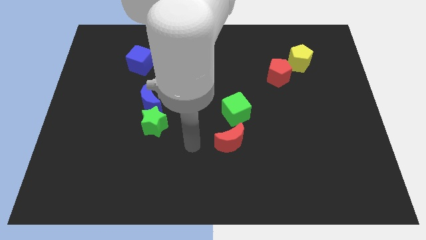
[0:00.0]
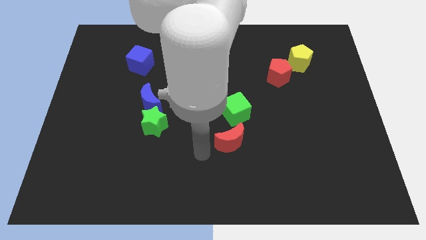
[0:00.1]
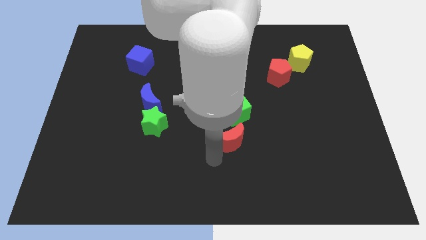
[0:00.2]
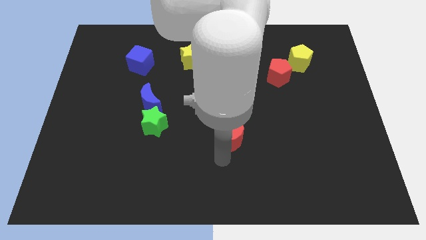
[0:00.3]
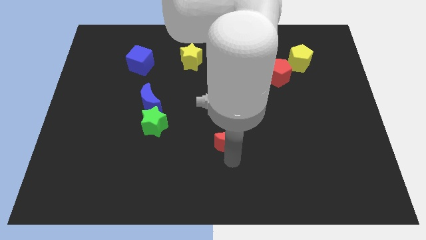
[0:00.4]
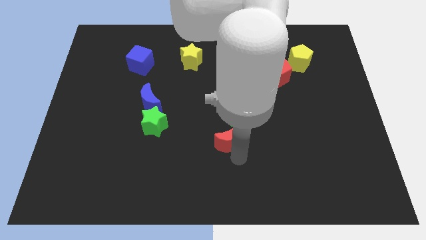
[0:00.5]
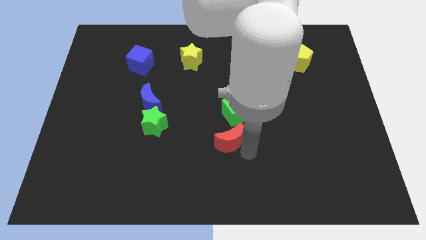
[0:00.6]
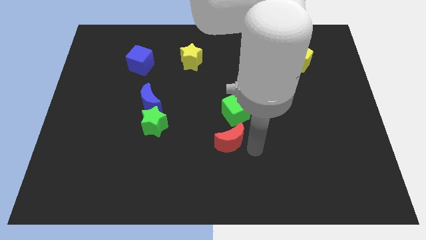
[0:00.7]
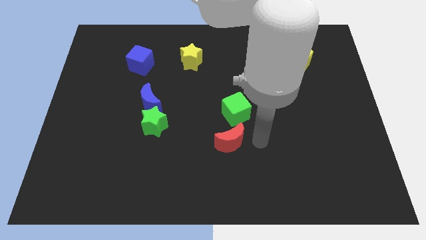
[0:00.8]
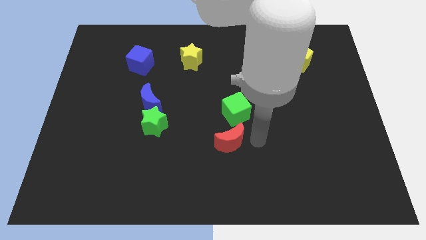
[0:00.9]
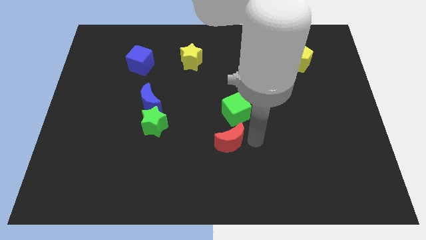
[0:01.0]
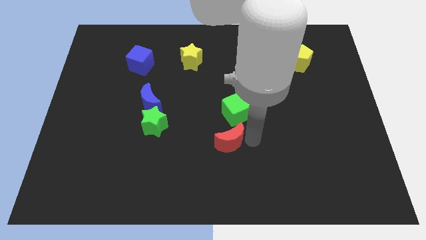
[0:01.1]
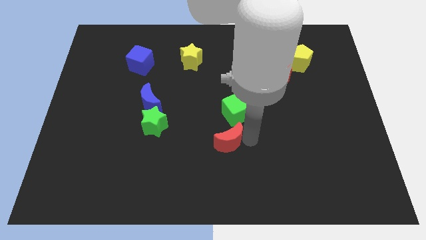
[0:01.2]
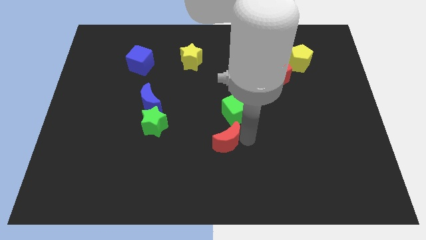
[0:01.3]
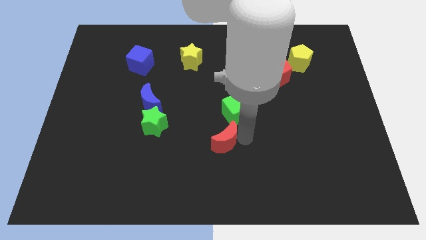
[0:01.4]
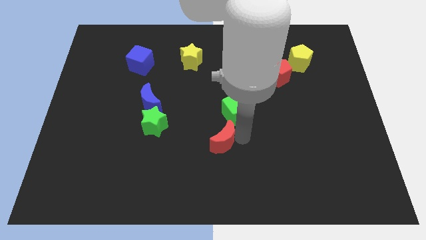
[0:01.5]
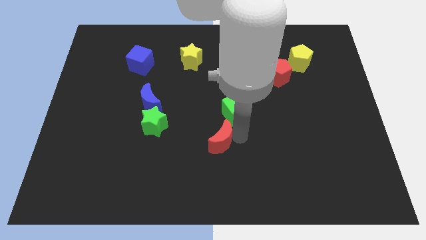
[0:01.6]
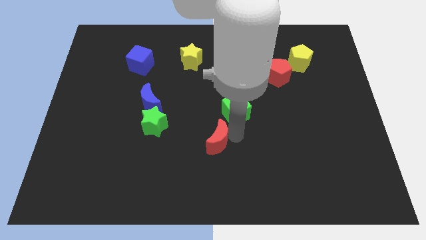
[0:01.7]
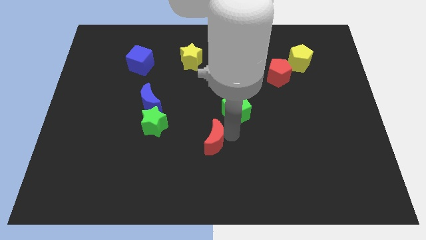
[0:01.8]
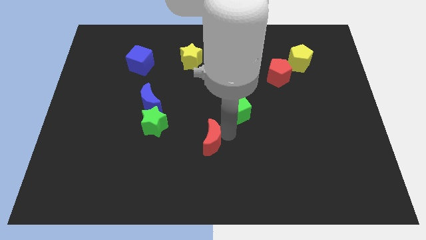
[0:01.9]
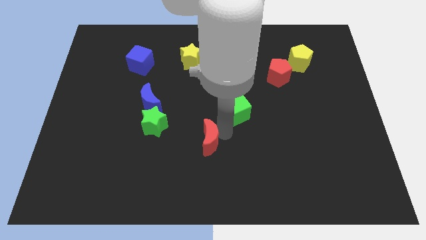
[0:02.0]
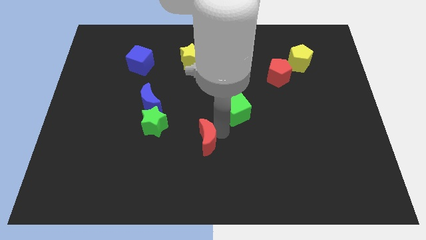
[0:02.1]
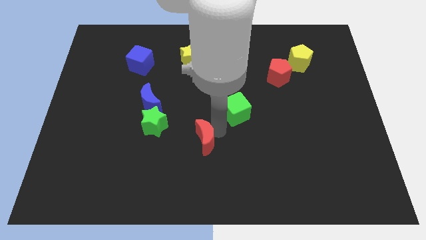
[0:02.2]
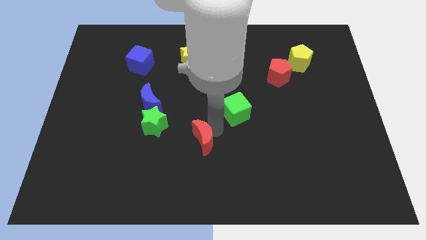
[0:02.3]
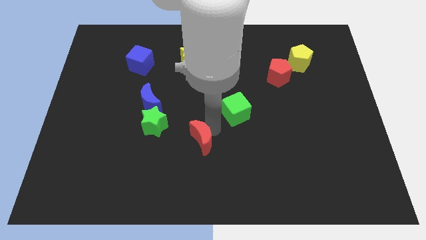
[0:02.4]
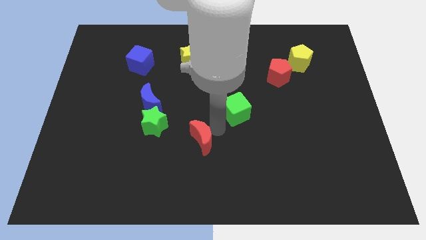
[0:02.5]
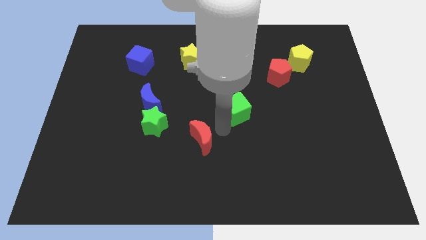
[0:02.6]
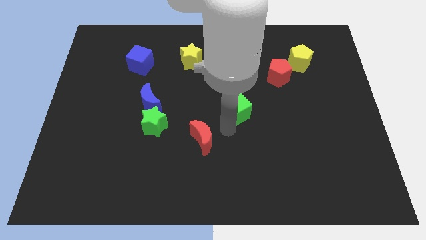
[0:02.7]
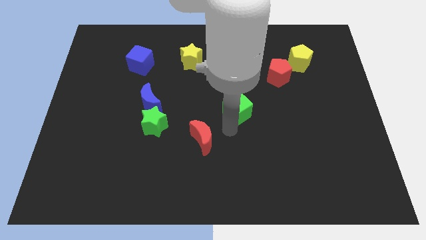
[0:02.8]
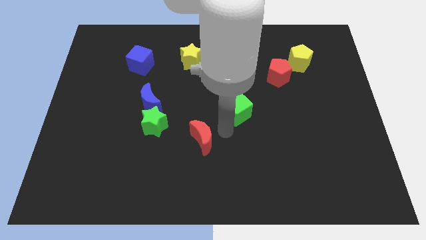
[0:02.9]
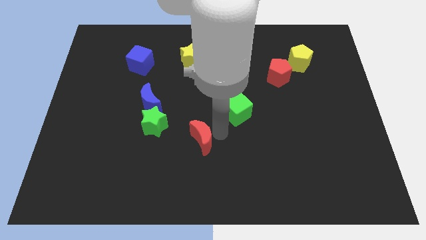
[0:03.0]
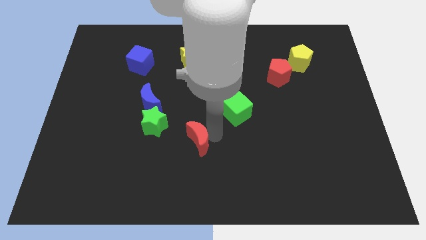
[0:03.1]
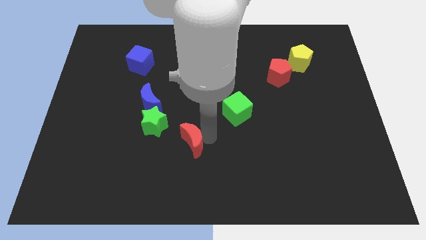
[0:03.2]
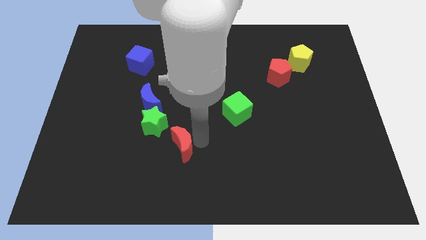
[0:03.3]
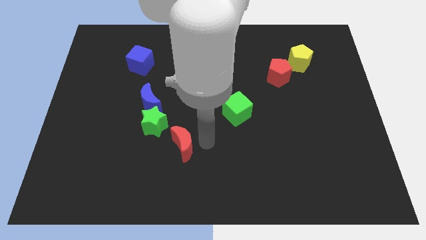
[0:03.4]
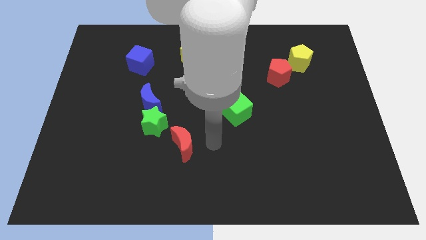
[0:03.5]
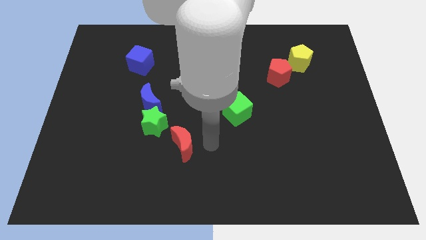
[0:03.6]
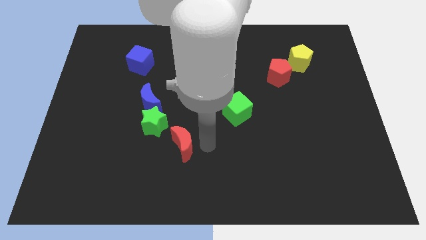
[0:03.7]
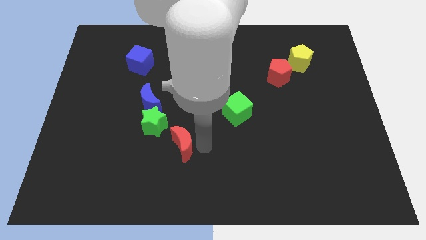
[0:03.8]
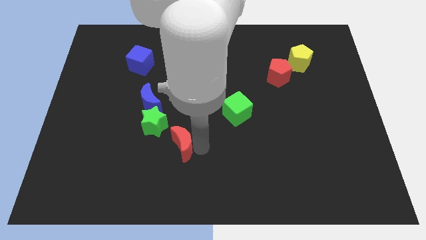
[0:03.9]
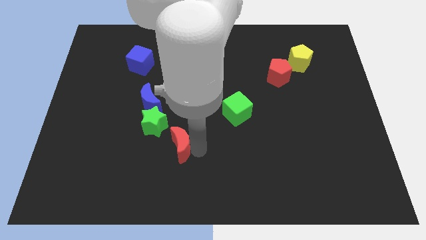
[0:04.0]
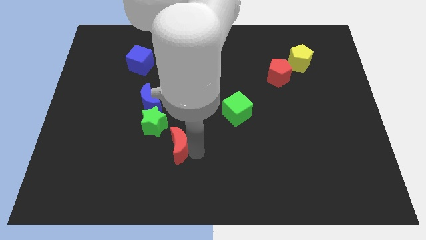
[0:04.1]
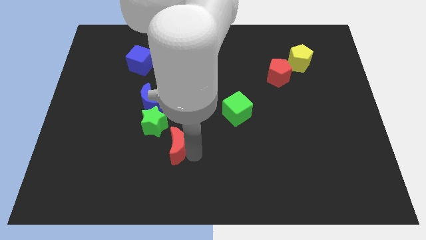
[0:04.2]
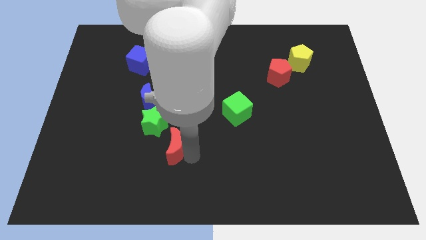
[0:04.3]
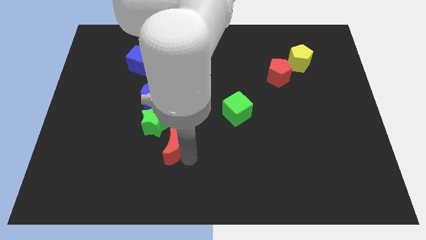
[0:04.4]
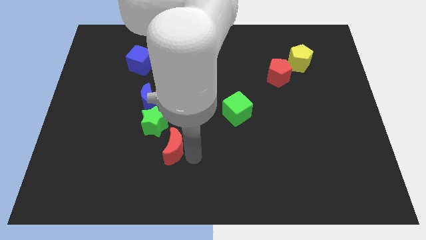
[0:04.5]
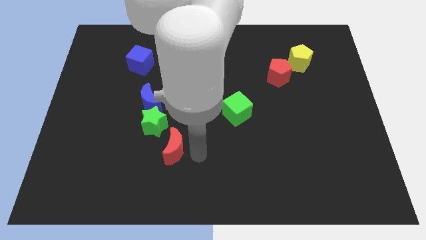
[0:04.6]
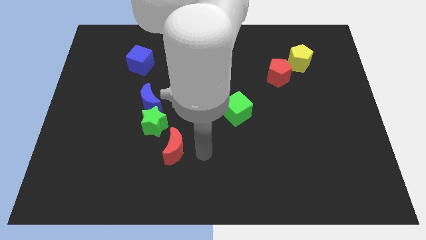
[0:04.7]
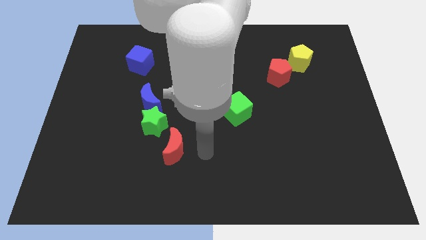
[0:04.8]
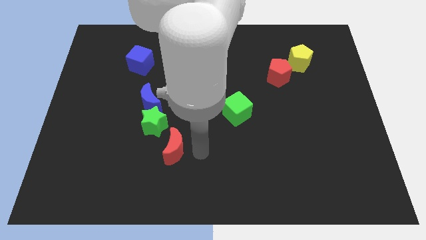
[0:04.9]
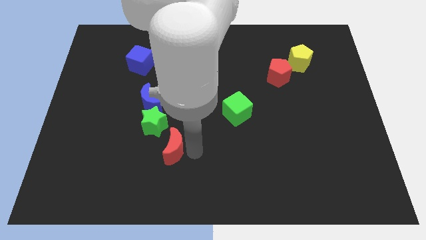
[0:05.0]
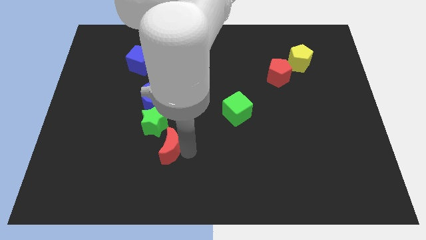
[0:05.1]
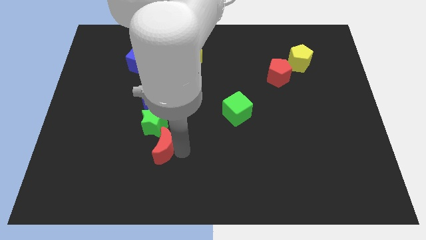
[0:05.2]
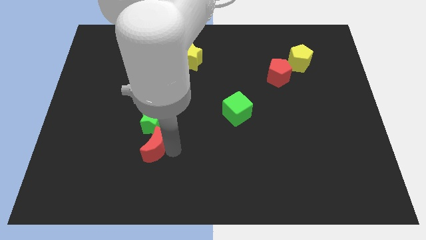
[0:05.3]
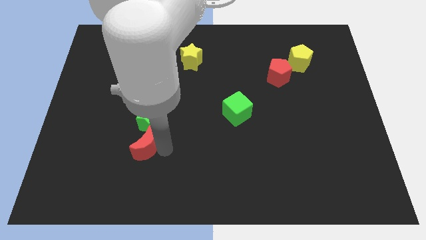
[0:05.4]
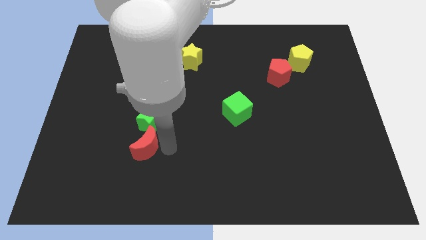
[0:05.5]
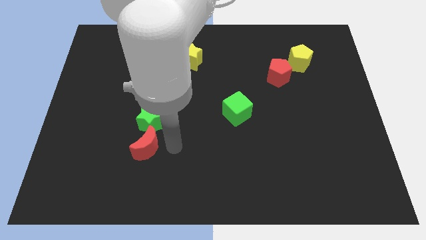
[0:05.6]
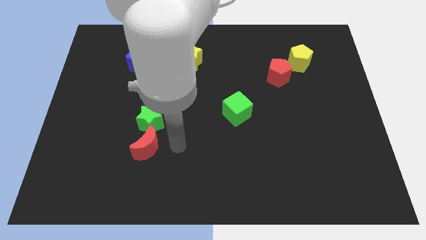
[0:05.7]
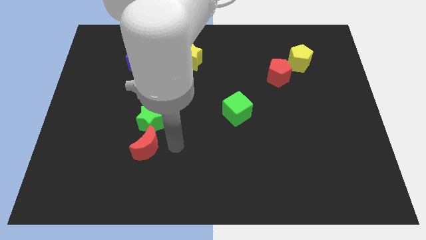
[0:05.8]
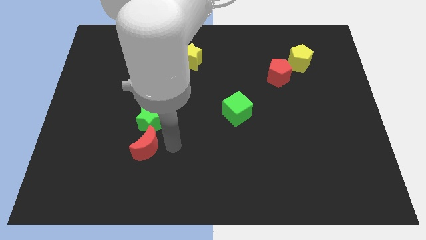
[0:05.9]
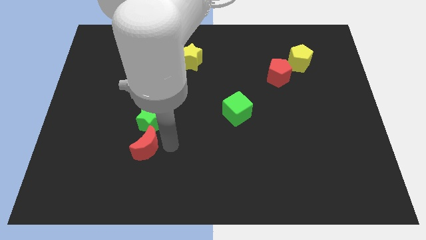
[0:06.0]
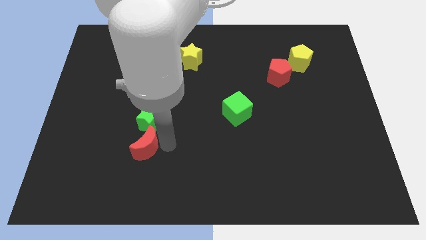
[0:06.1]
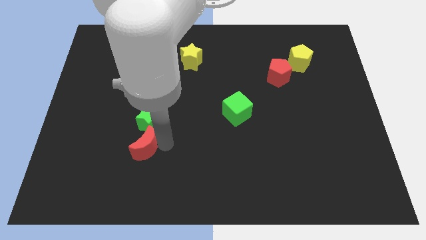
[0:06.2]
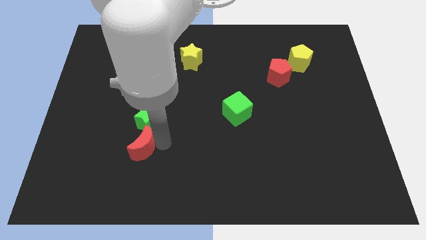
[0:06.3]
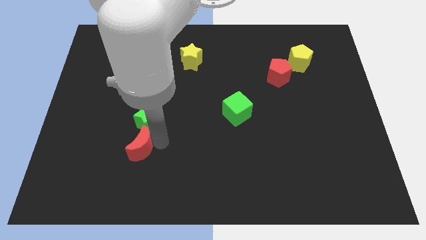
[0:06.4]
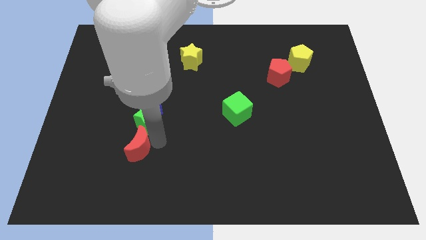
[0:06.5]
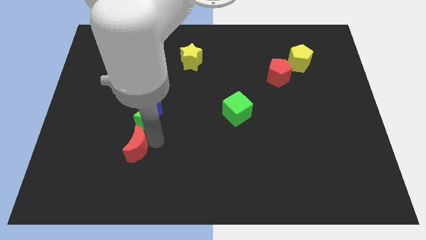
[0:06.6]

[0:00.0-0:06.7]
slide the red moon left

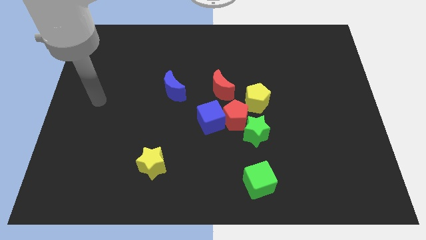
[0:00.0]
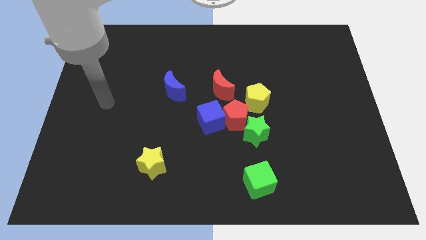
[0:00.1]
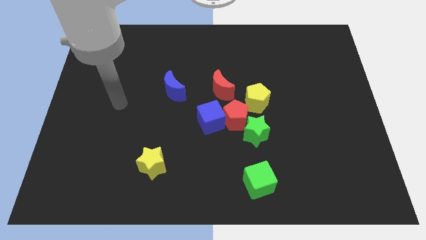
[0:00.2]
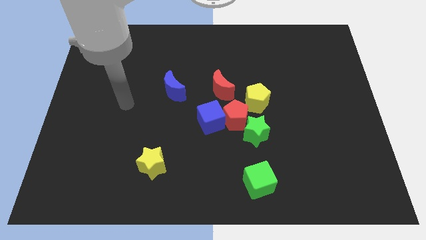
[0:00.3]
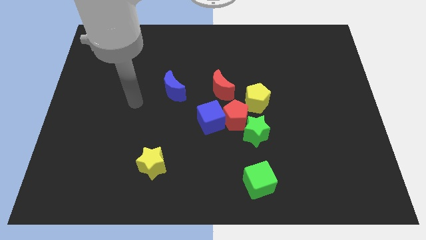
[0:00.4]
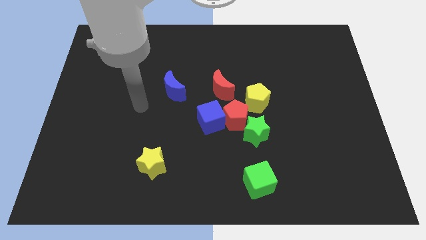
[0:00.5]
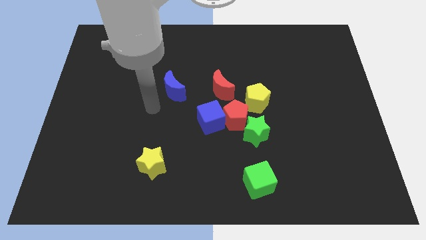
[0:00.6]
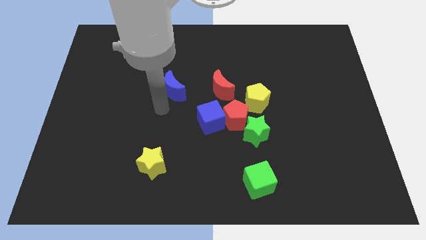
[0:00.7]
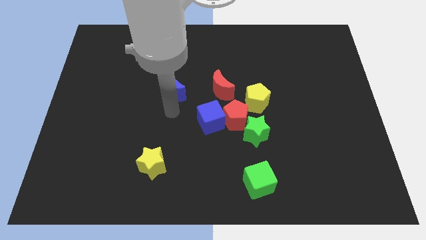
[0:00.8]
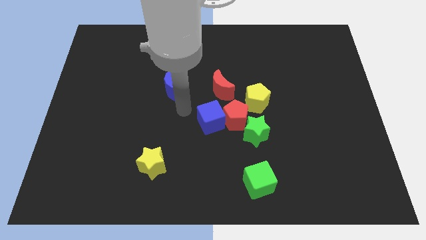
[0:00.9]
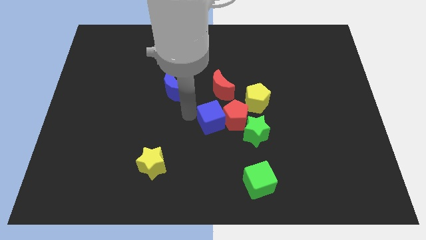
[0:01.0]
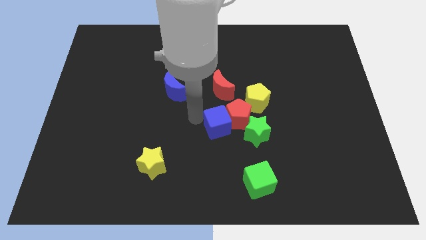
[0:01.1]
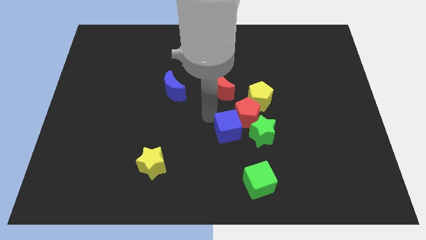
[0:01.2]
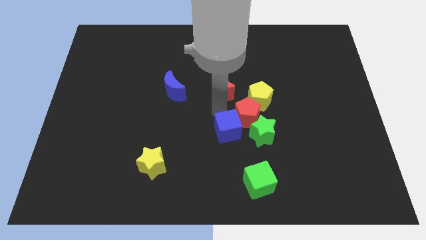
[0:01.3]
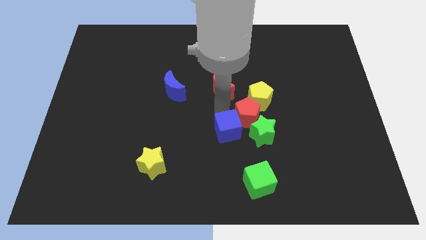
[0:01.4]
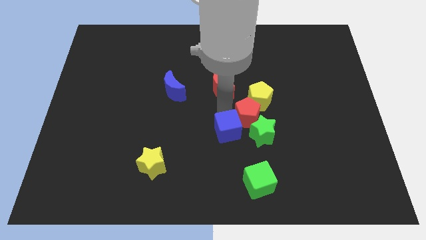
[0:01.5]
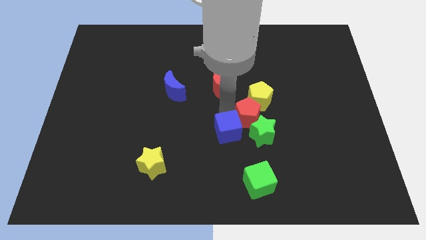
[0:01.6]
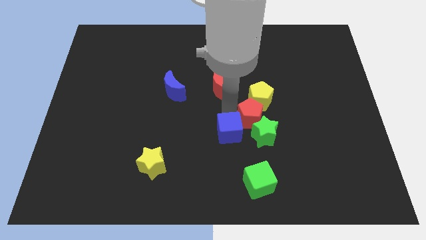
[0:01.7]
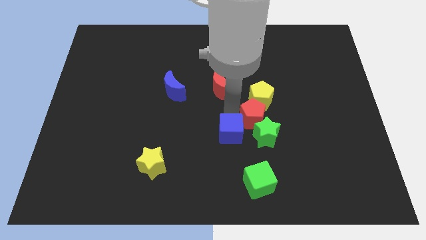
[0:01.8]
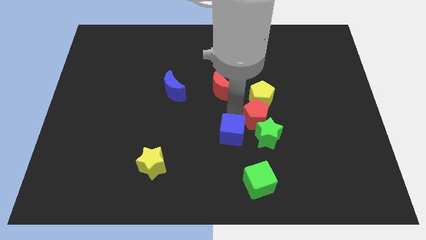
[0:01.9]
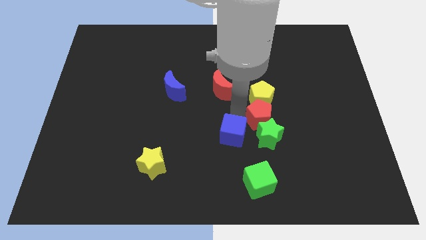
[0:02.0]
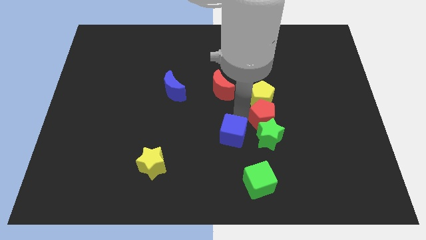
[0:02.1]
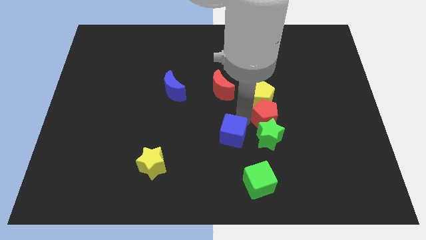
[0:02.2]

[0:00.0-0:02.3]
slightly slide the red pentagon to the right
